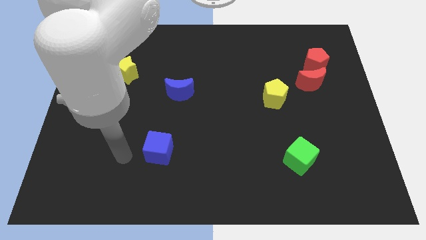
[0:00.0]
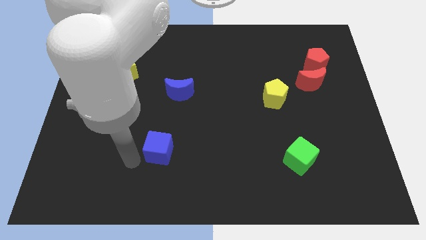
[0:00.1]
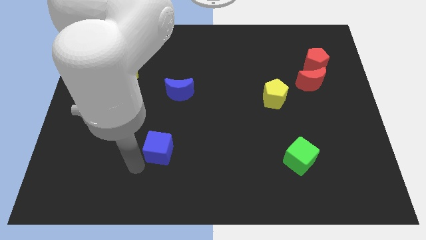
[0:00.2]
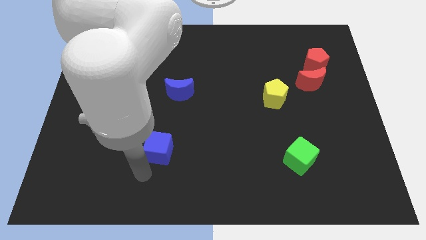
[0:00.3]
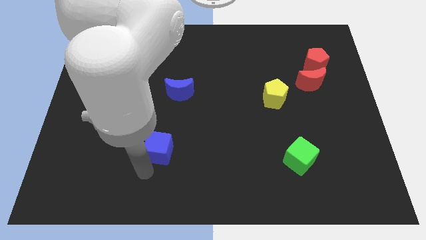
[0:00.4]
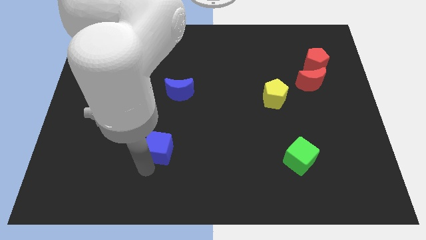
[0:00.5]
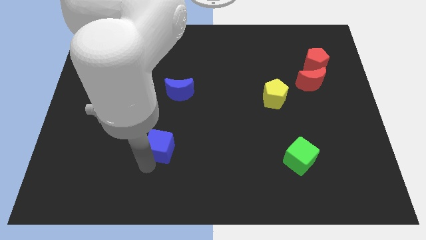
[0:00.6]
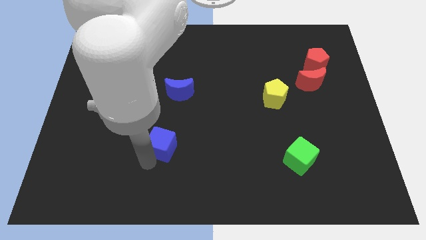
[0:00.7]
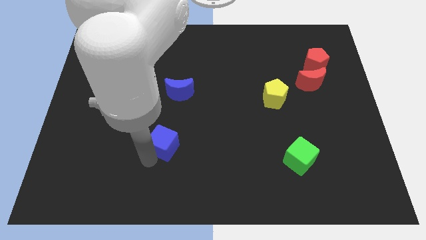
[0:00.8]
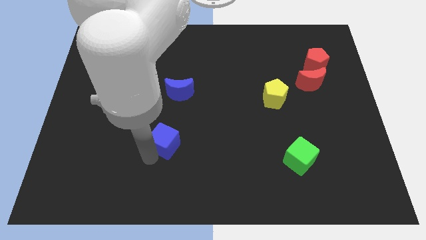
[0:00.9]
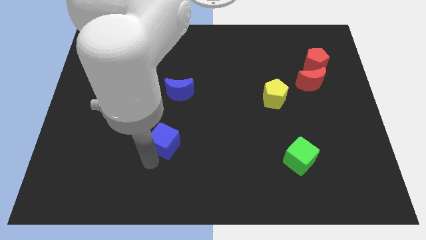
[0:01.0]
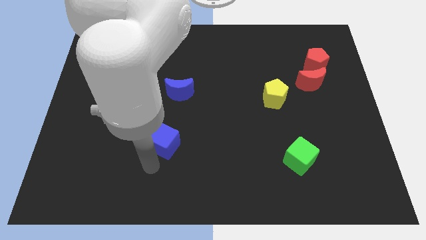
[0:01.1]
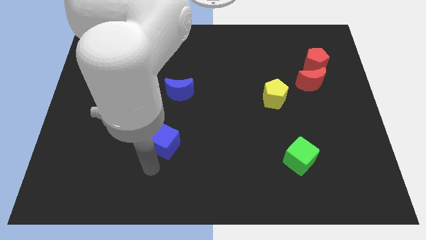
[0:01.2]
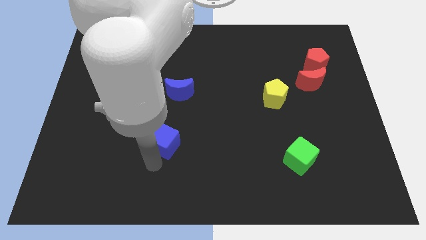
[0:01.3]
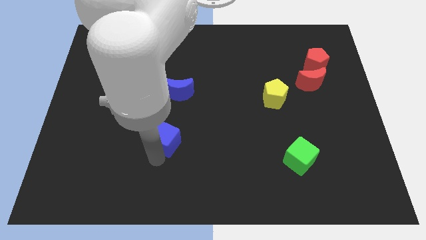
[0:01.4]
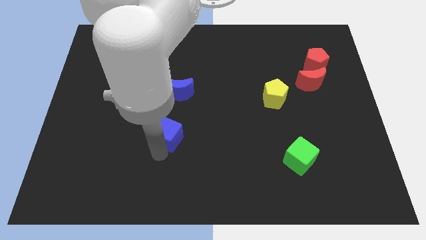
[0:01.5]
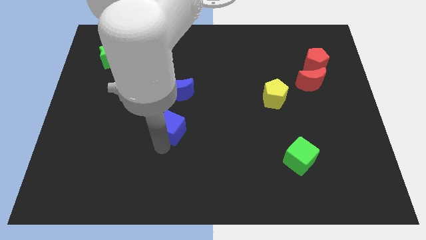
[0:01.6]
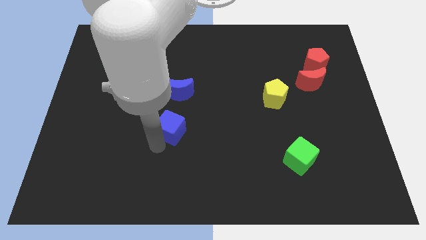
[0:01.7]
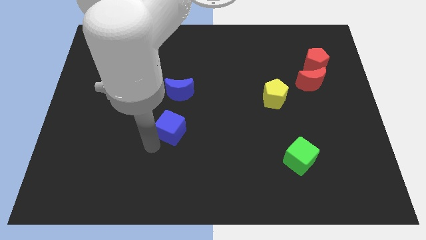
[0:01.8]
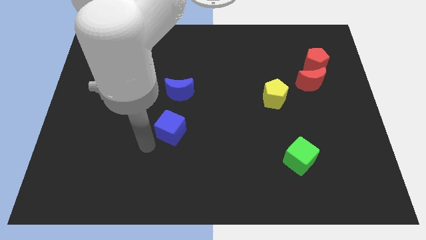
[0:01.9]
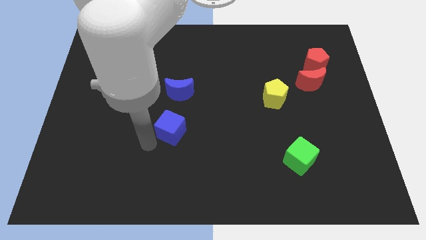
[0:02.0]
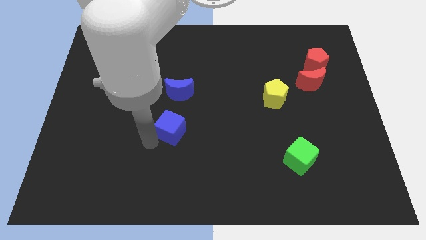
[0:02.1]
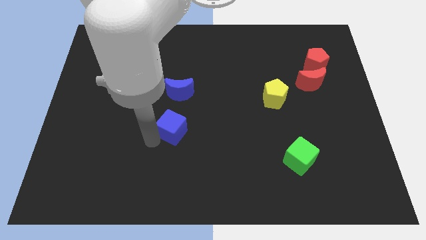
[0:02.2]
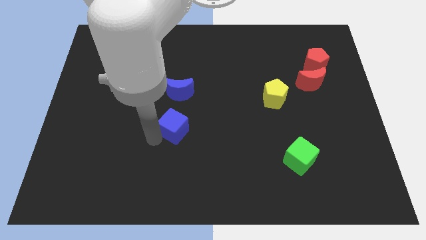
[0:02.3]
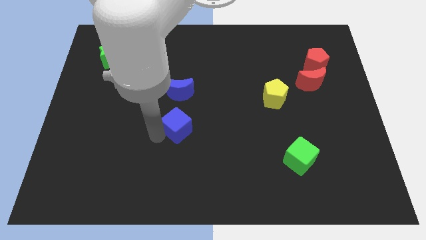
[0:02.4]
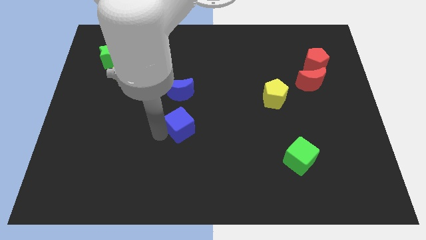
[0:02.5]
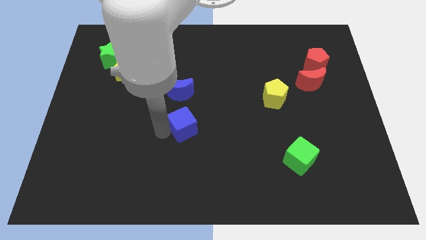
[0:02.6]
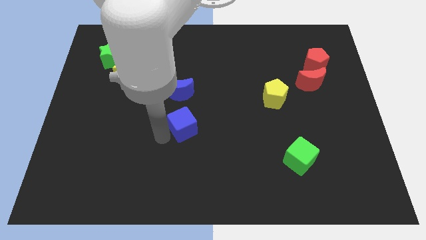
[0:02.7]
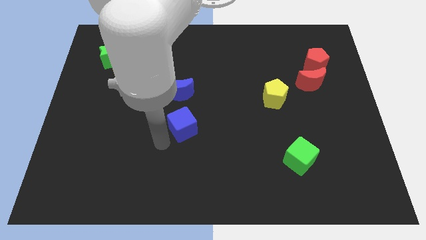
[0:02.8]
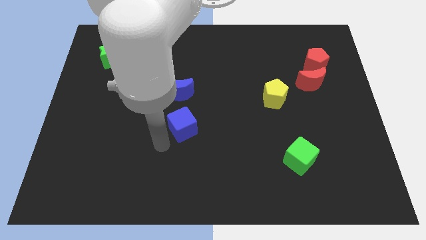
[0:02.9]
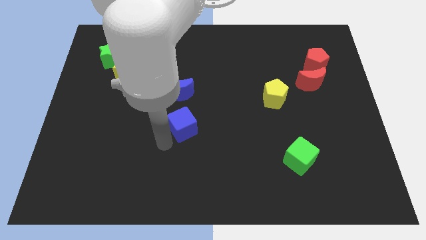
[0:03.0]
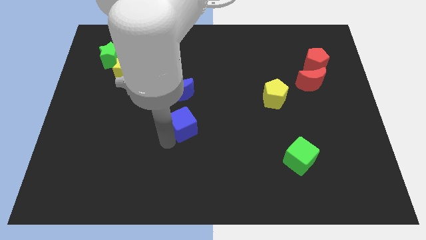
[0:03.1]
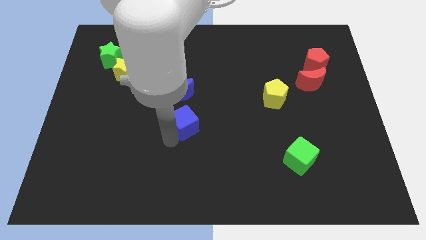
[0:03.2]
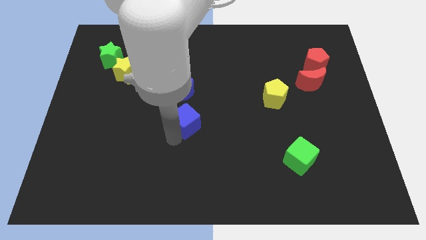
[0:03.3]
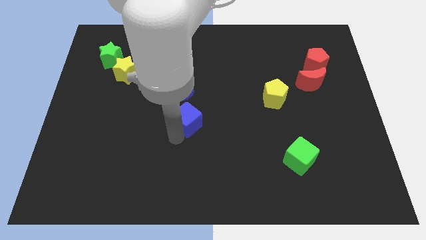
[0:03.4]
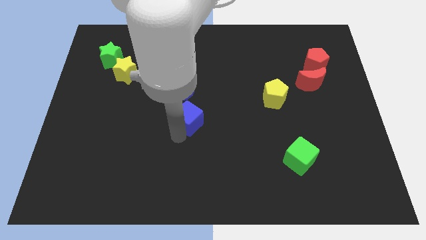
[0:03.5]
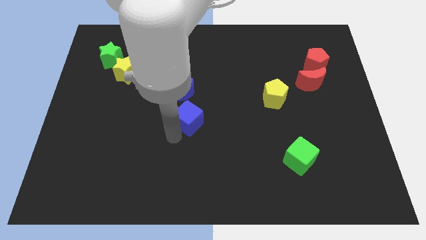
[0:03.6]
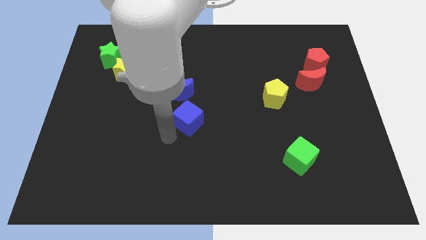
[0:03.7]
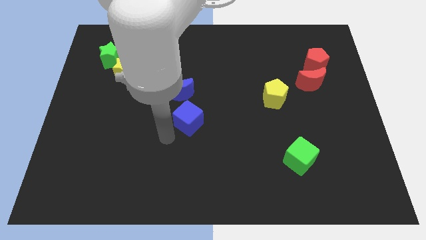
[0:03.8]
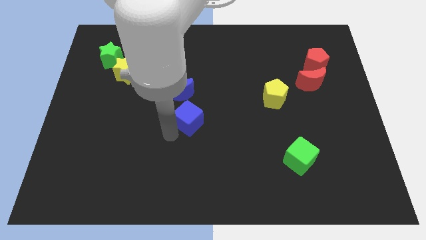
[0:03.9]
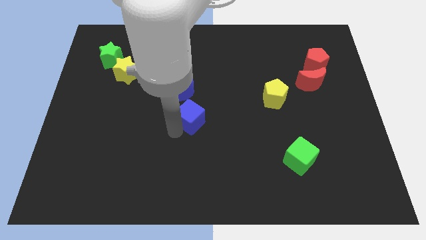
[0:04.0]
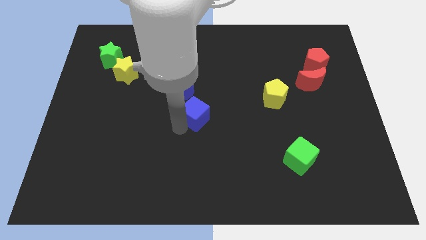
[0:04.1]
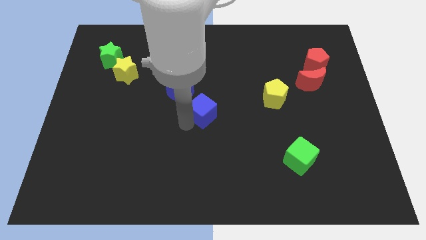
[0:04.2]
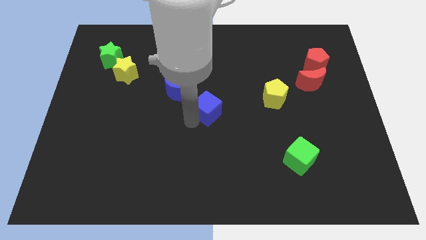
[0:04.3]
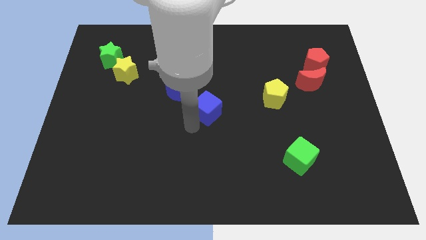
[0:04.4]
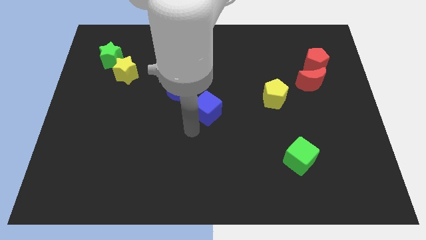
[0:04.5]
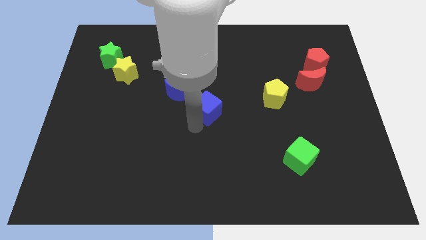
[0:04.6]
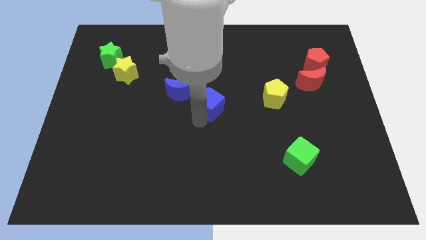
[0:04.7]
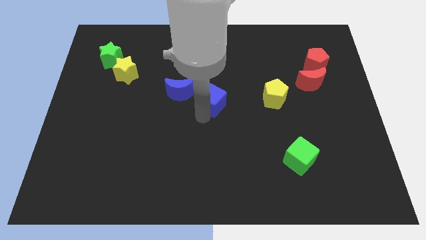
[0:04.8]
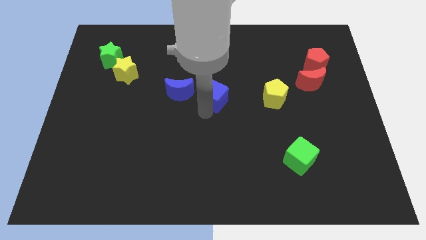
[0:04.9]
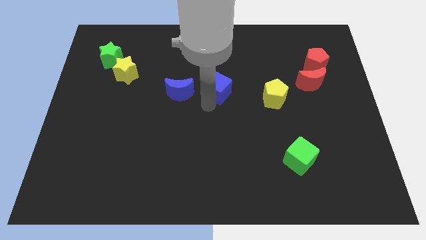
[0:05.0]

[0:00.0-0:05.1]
slide the blue cube up and then to the right

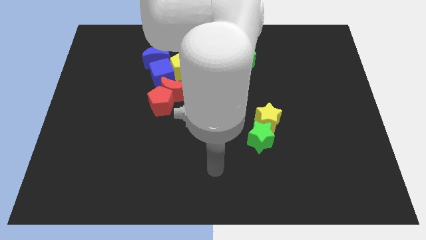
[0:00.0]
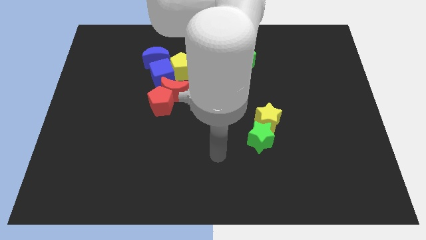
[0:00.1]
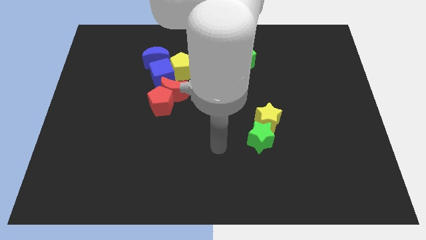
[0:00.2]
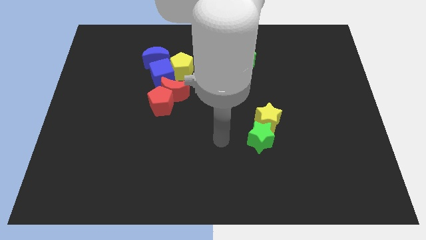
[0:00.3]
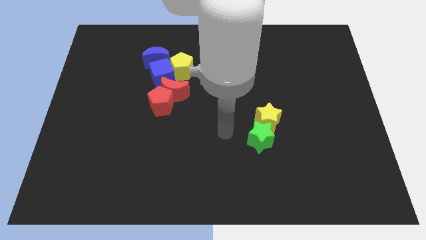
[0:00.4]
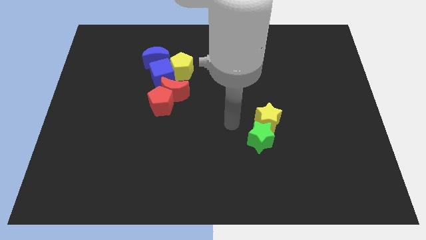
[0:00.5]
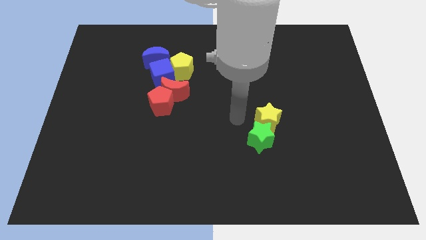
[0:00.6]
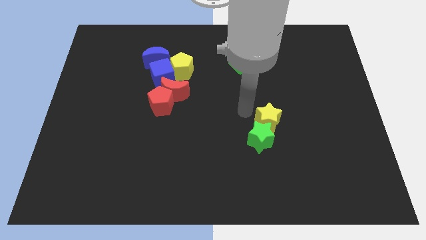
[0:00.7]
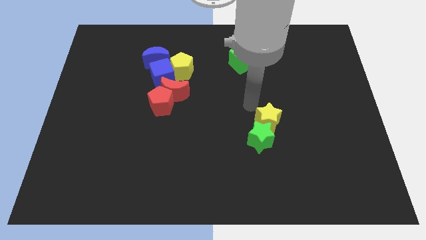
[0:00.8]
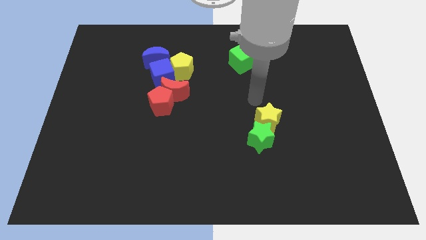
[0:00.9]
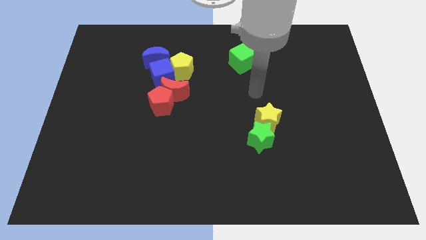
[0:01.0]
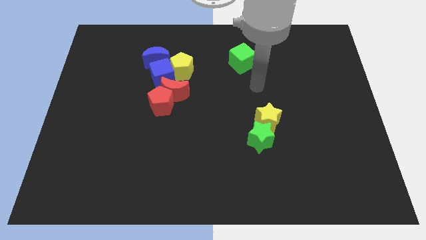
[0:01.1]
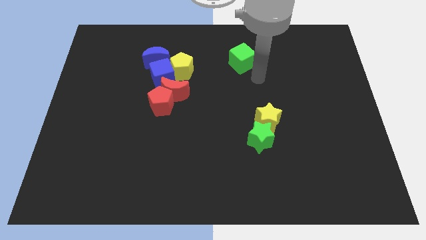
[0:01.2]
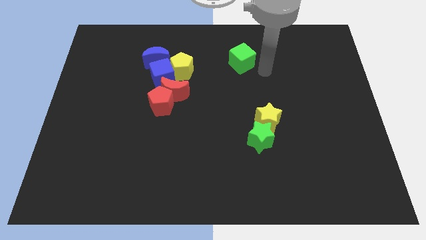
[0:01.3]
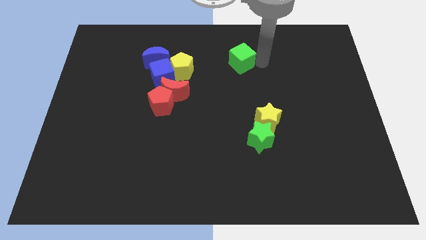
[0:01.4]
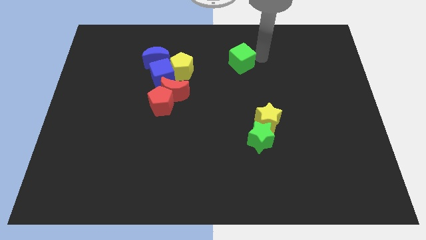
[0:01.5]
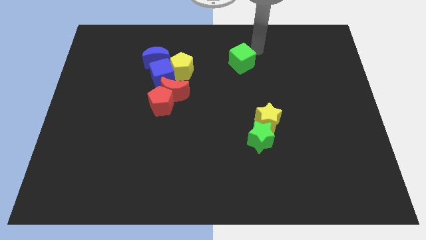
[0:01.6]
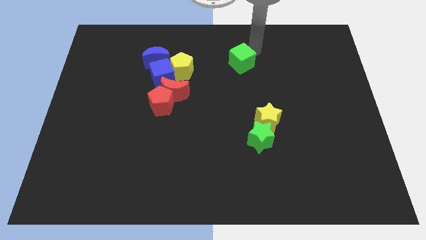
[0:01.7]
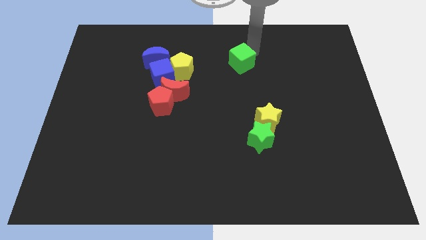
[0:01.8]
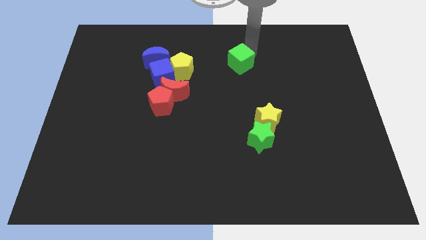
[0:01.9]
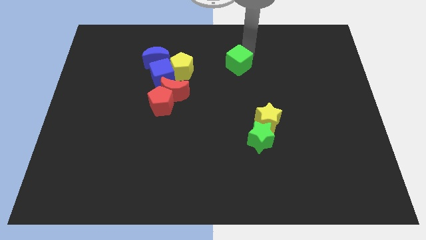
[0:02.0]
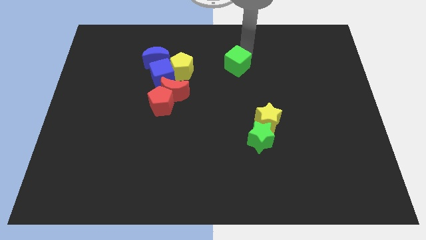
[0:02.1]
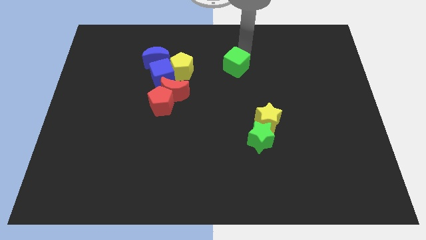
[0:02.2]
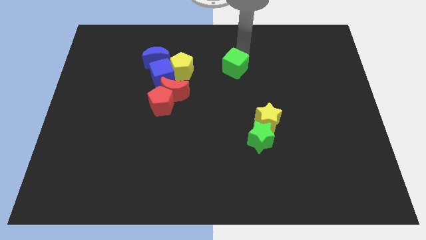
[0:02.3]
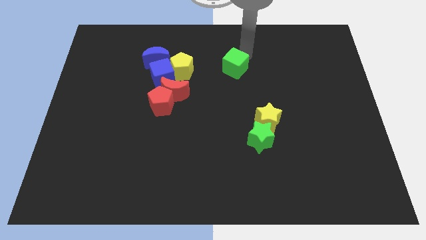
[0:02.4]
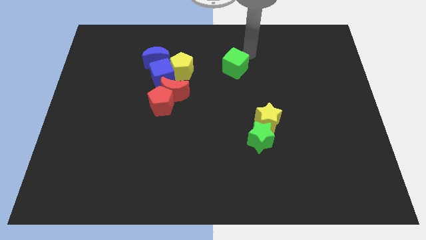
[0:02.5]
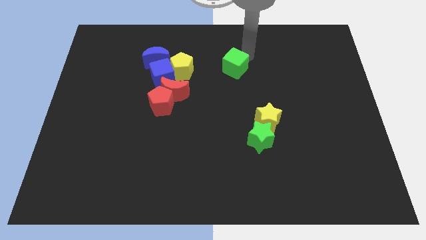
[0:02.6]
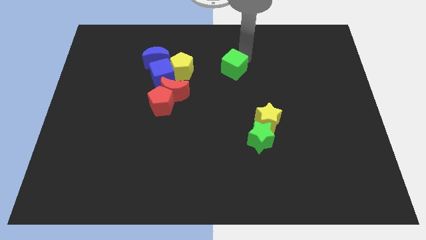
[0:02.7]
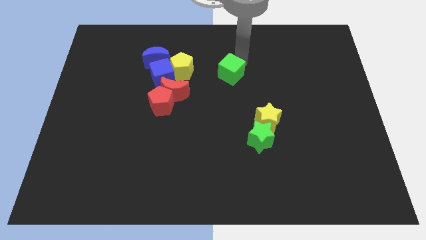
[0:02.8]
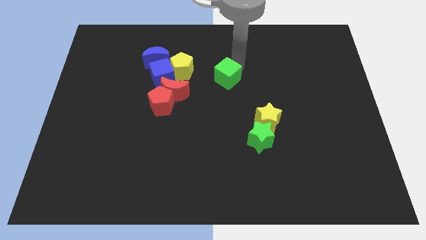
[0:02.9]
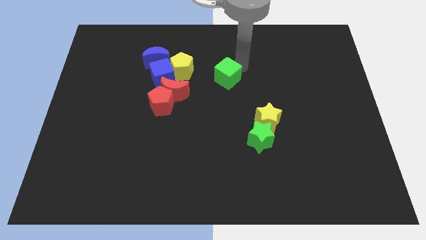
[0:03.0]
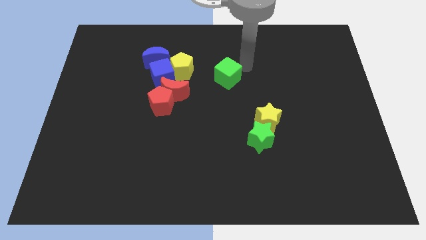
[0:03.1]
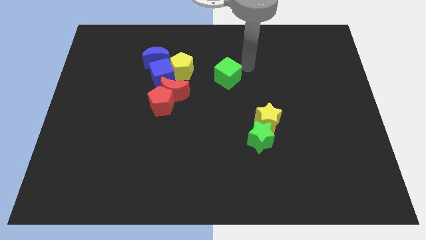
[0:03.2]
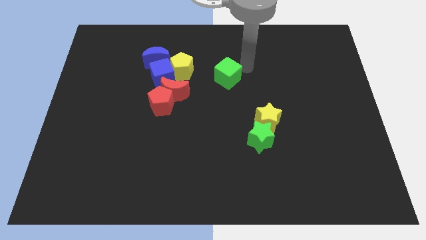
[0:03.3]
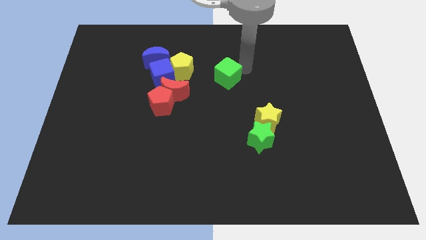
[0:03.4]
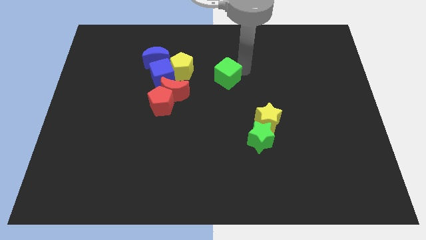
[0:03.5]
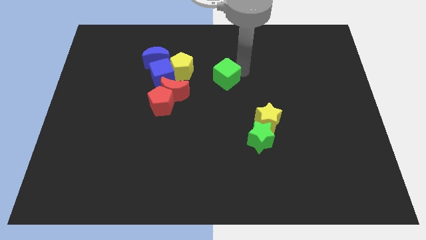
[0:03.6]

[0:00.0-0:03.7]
slightly push the green cube diagonally downwards and to the left
